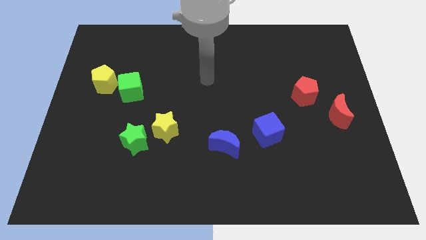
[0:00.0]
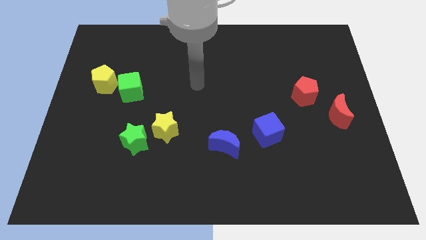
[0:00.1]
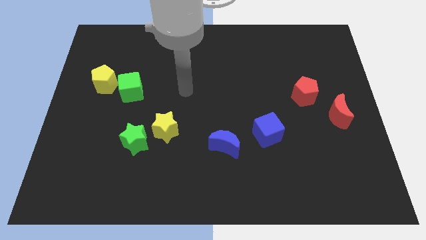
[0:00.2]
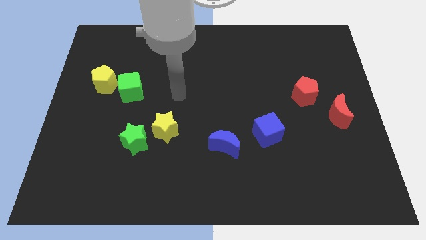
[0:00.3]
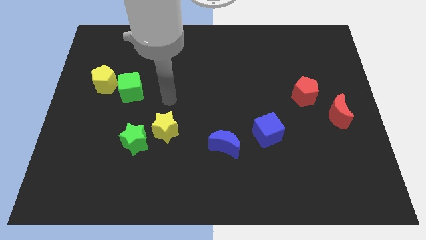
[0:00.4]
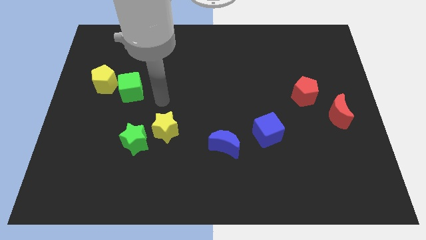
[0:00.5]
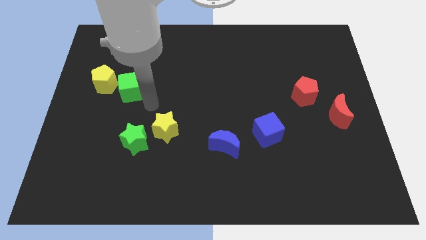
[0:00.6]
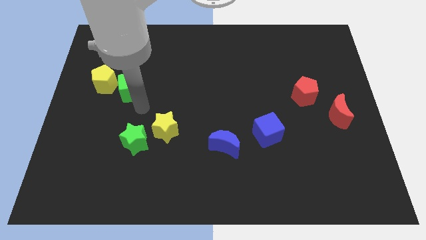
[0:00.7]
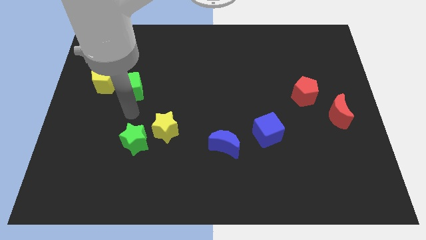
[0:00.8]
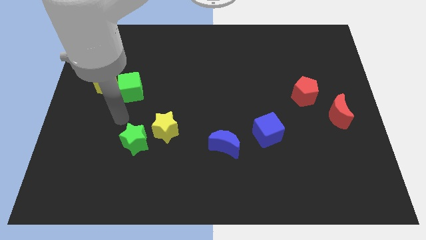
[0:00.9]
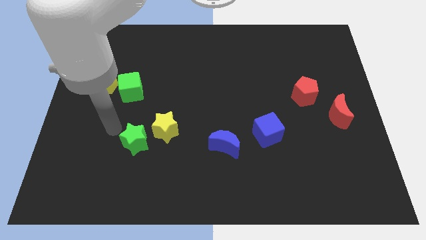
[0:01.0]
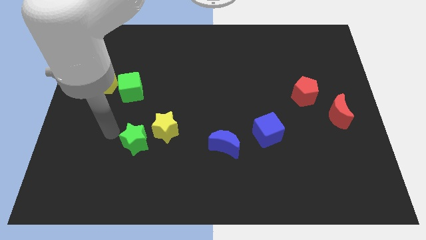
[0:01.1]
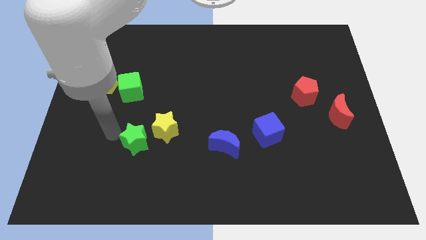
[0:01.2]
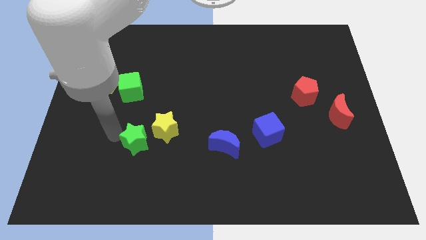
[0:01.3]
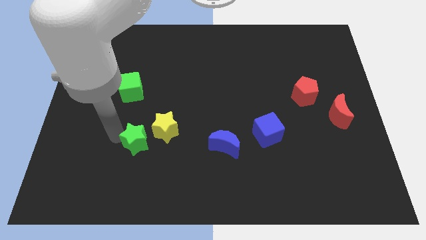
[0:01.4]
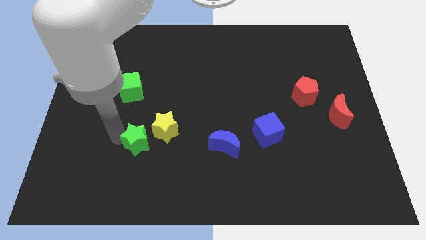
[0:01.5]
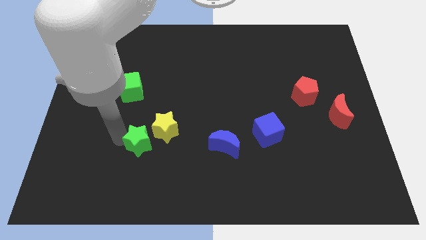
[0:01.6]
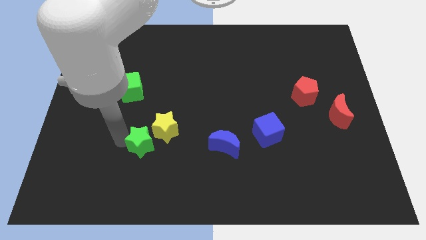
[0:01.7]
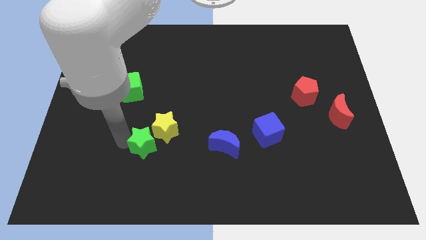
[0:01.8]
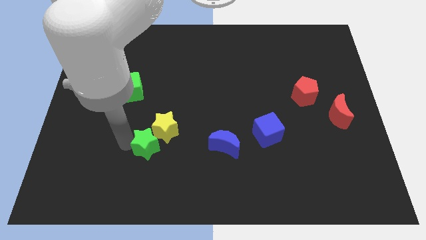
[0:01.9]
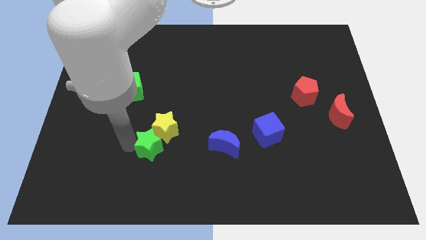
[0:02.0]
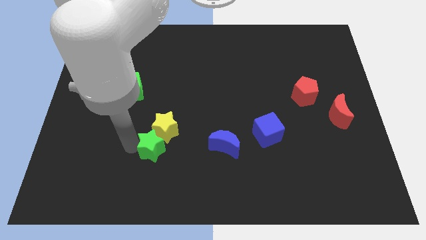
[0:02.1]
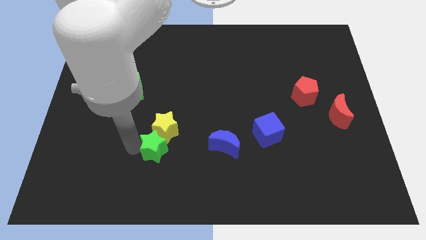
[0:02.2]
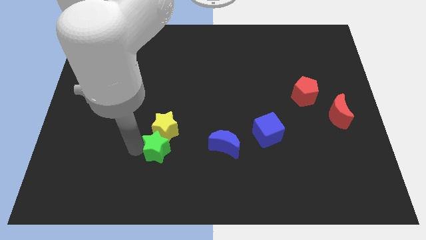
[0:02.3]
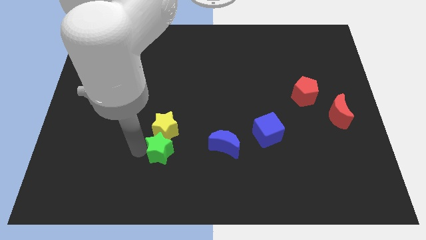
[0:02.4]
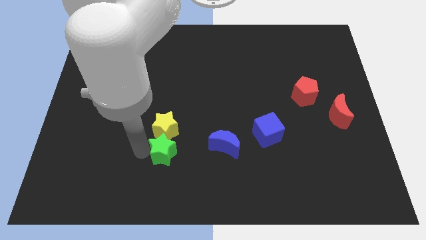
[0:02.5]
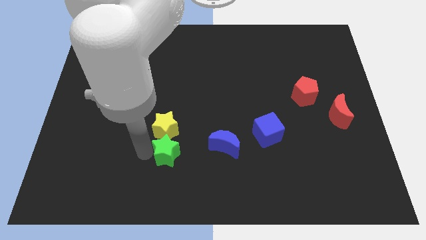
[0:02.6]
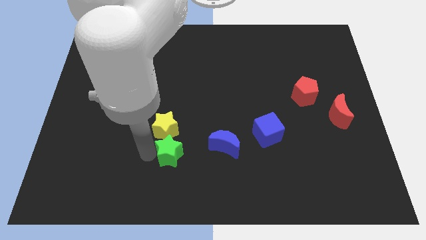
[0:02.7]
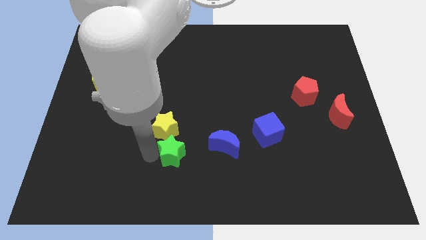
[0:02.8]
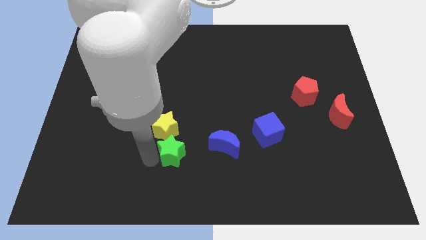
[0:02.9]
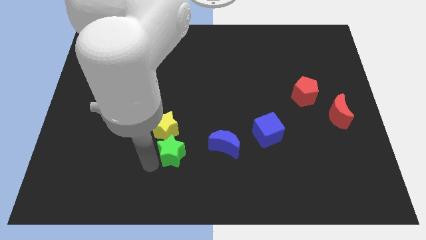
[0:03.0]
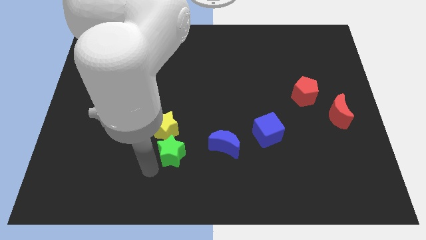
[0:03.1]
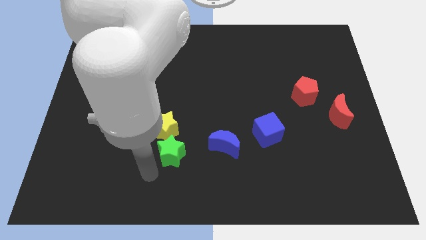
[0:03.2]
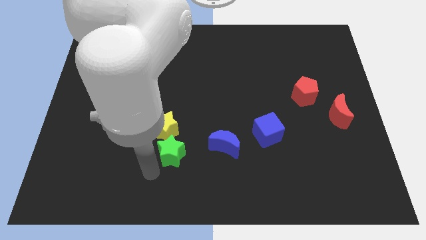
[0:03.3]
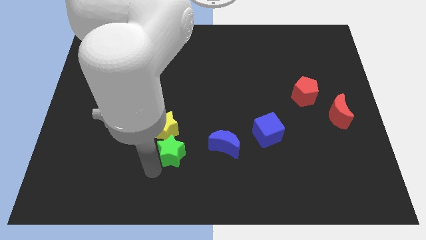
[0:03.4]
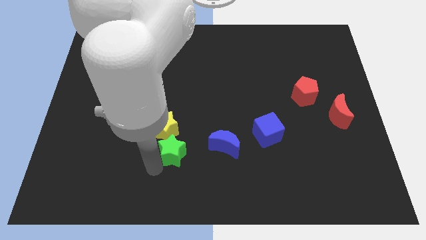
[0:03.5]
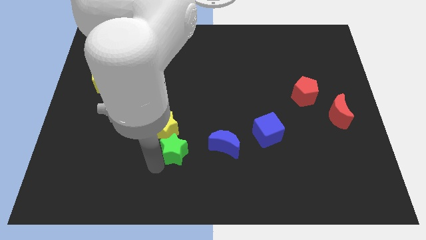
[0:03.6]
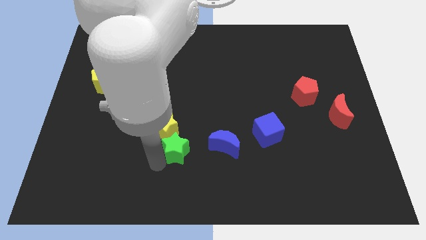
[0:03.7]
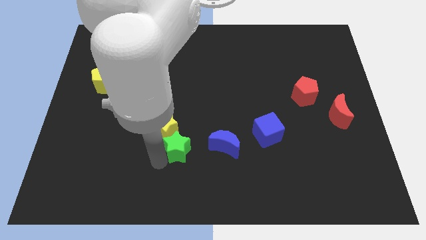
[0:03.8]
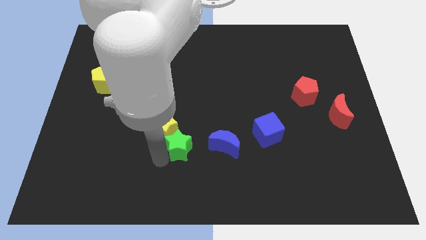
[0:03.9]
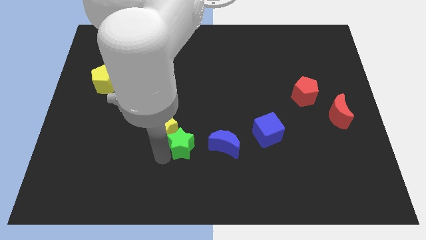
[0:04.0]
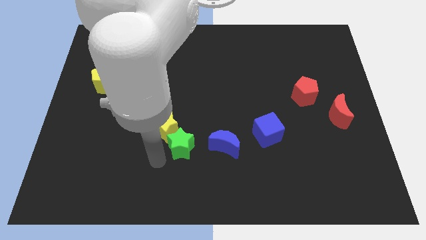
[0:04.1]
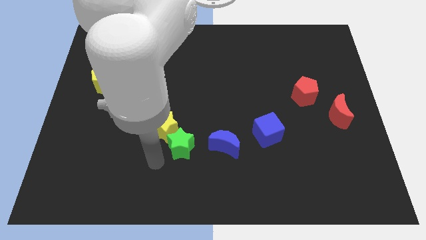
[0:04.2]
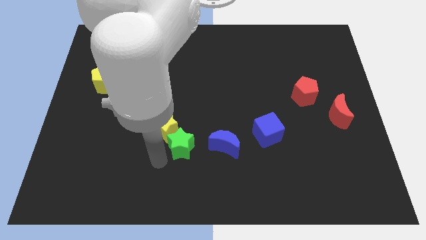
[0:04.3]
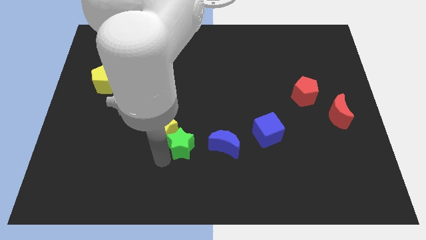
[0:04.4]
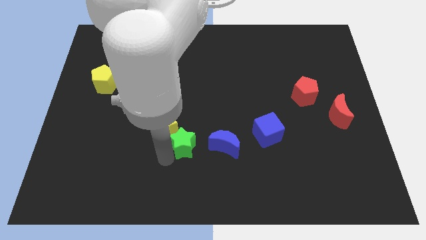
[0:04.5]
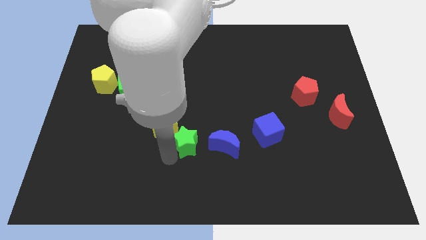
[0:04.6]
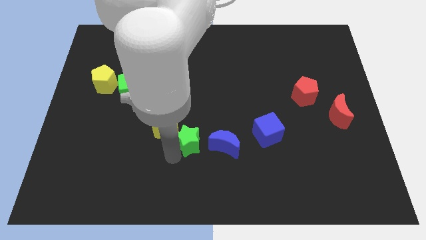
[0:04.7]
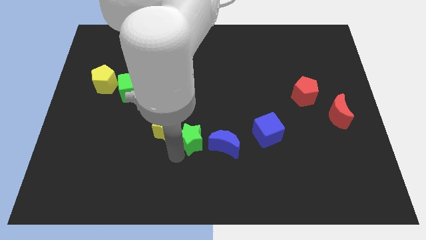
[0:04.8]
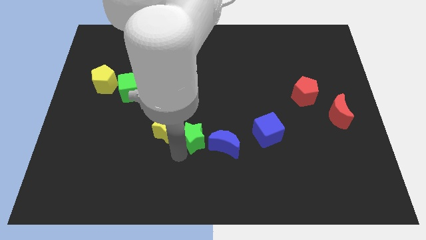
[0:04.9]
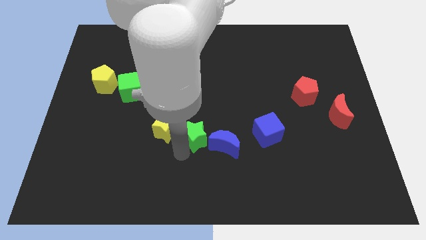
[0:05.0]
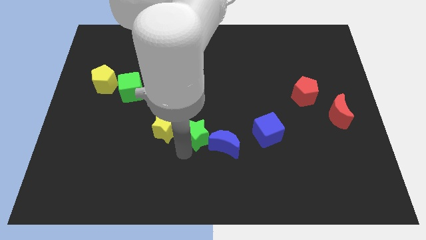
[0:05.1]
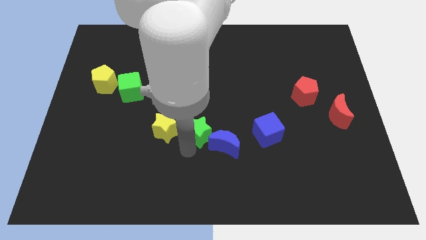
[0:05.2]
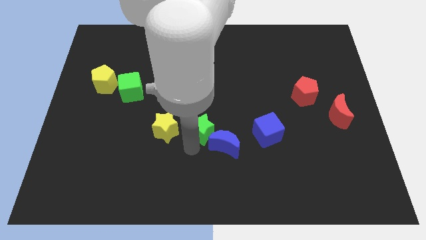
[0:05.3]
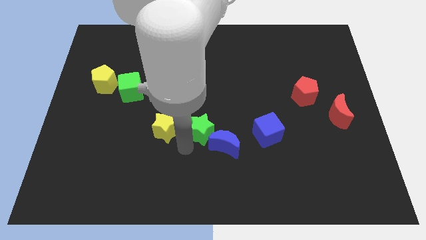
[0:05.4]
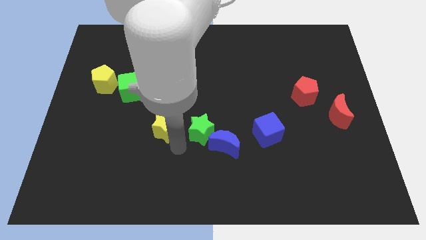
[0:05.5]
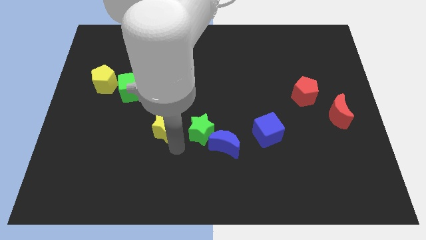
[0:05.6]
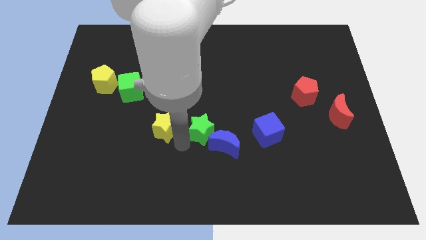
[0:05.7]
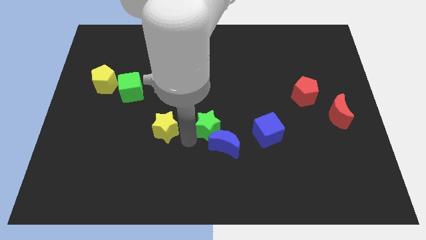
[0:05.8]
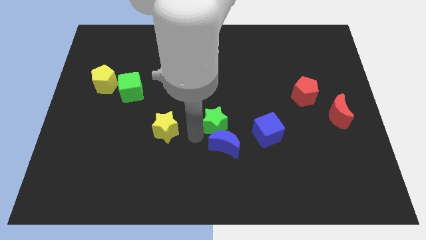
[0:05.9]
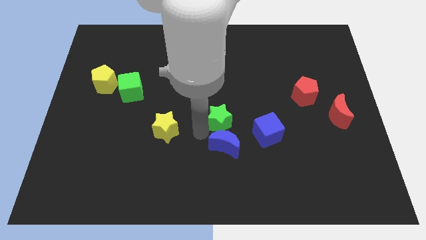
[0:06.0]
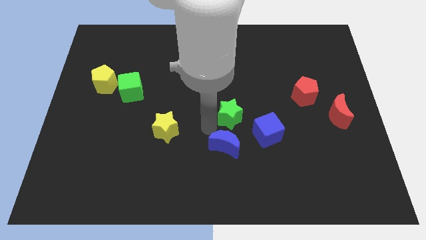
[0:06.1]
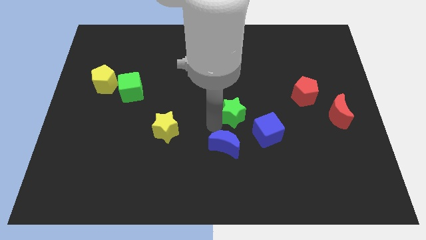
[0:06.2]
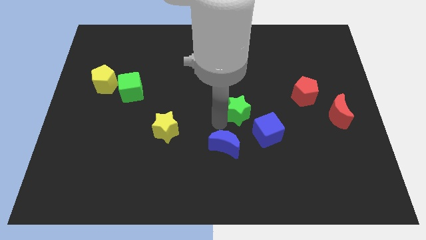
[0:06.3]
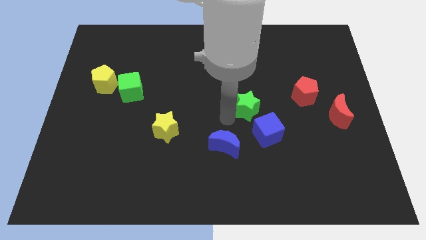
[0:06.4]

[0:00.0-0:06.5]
slide the green star left of the red pentagon
